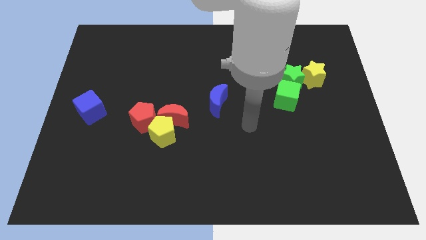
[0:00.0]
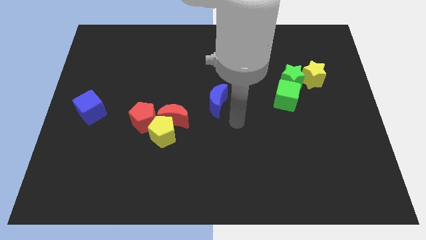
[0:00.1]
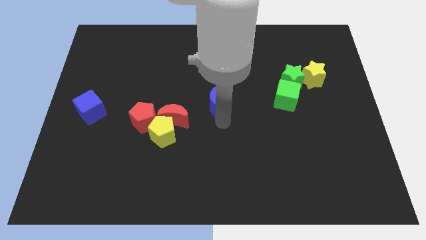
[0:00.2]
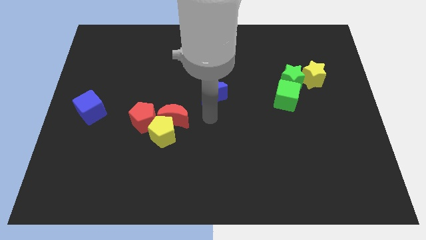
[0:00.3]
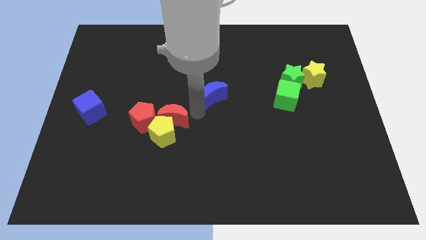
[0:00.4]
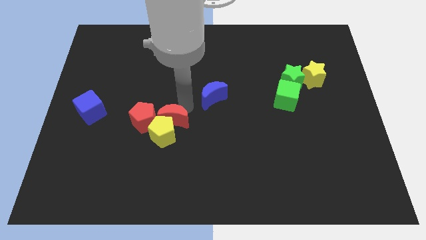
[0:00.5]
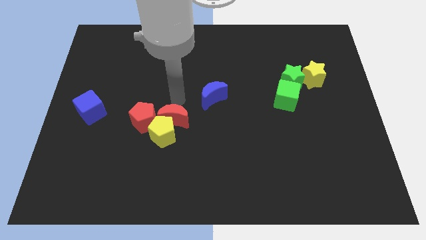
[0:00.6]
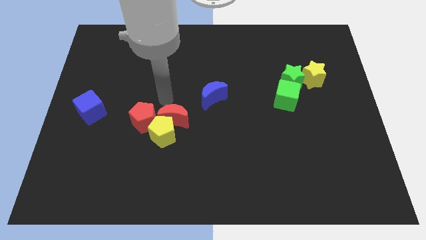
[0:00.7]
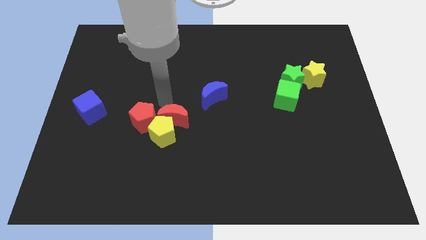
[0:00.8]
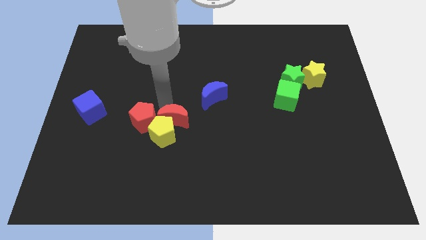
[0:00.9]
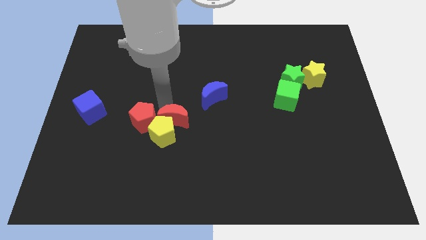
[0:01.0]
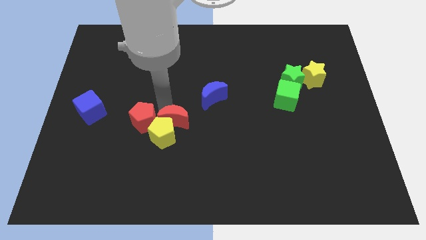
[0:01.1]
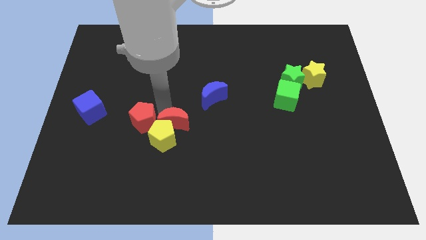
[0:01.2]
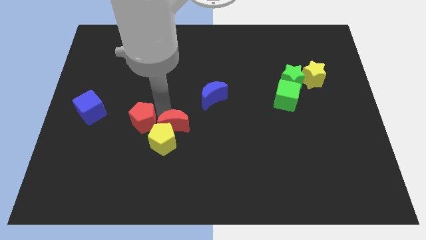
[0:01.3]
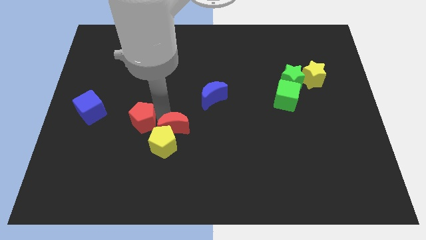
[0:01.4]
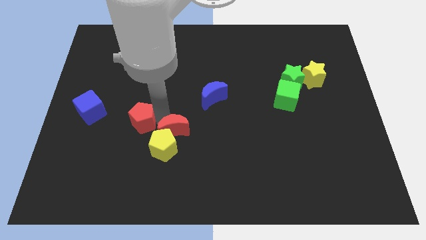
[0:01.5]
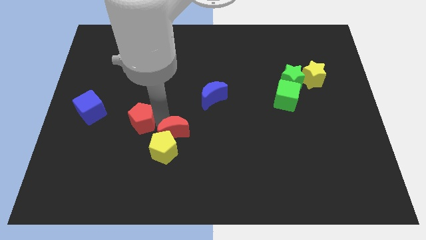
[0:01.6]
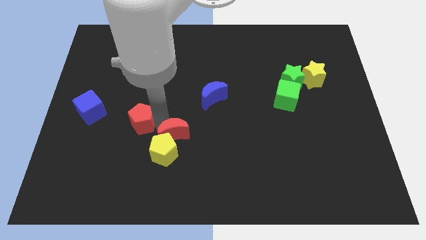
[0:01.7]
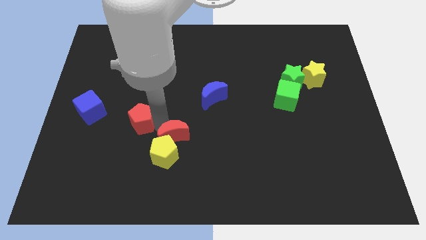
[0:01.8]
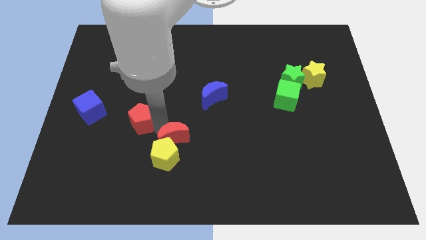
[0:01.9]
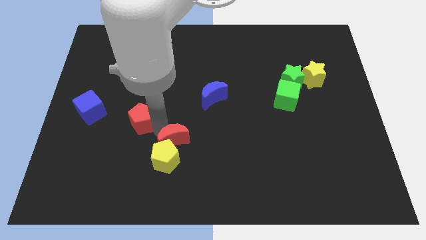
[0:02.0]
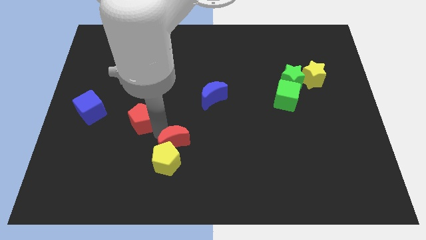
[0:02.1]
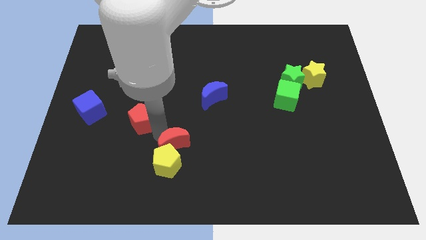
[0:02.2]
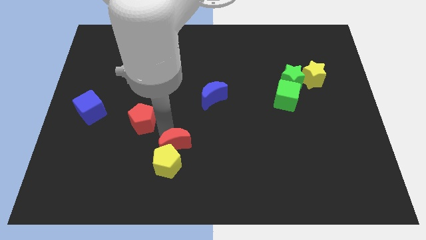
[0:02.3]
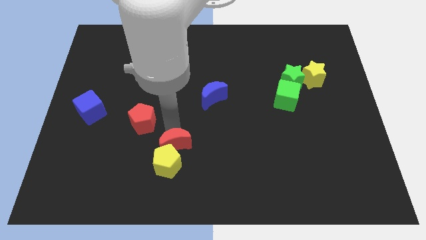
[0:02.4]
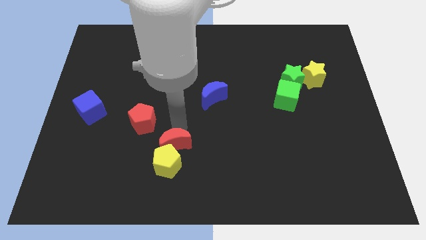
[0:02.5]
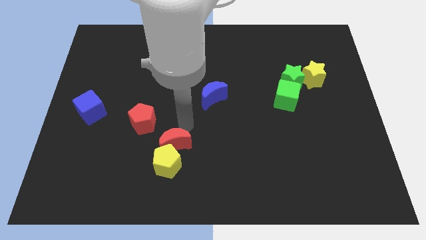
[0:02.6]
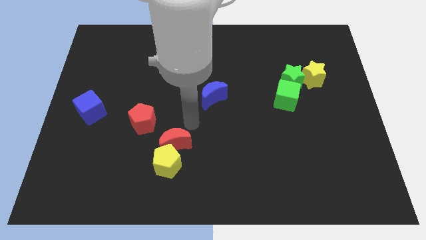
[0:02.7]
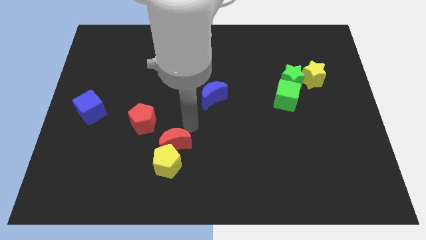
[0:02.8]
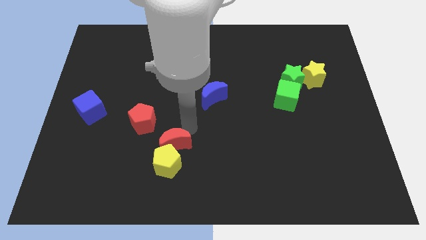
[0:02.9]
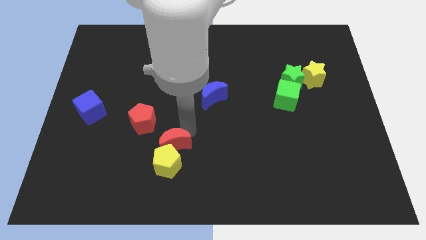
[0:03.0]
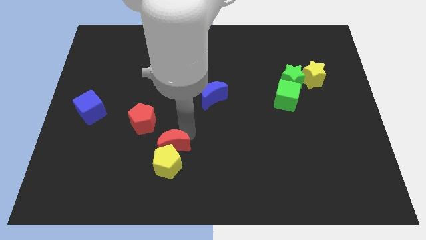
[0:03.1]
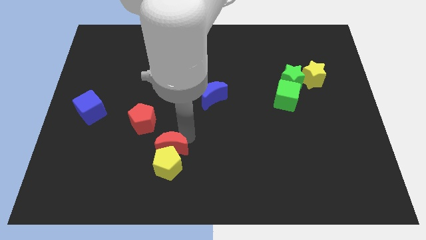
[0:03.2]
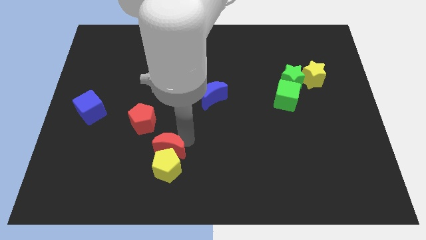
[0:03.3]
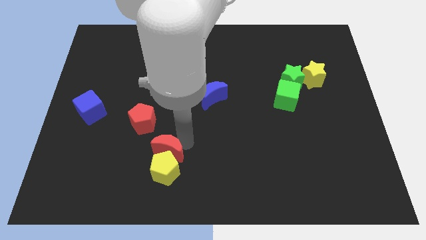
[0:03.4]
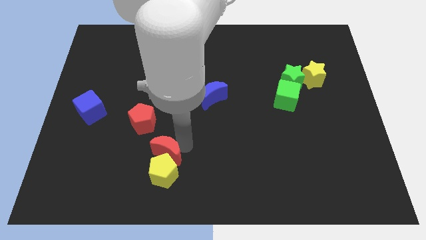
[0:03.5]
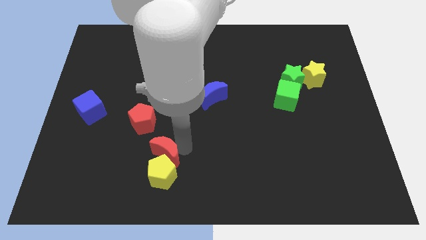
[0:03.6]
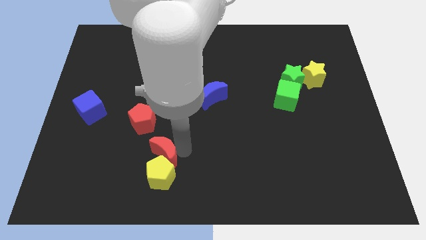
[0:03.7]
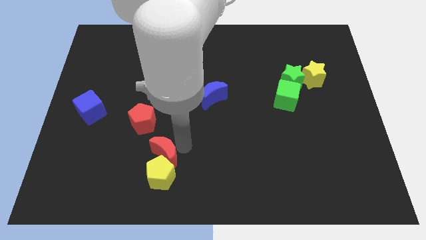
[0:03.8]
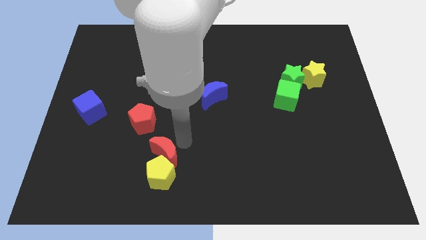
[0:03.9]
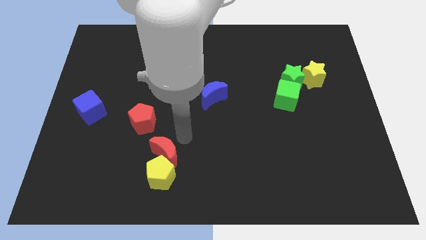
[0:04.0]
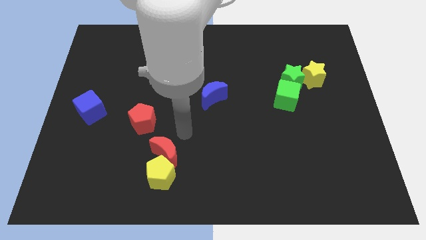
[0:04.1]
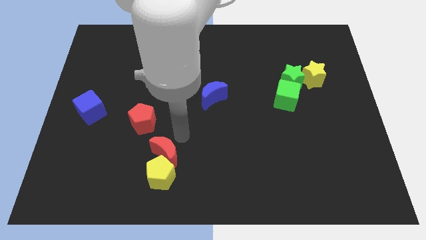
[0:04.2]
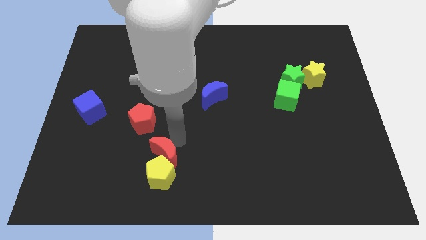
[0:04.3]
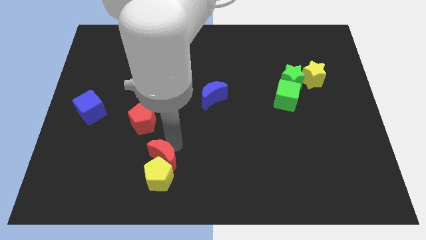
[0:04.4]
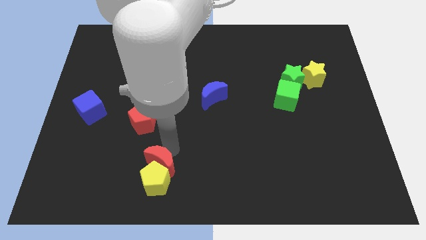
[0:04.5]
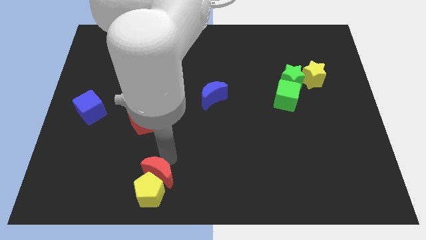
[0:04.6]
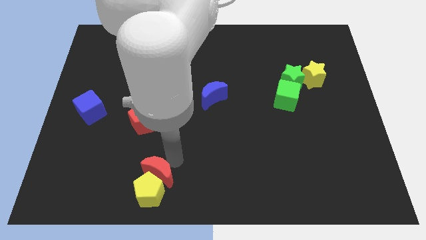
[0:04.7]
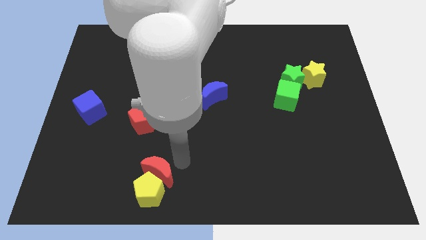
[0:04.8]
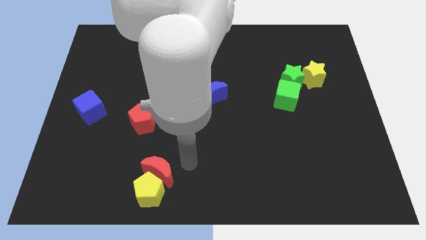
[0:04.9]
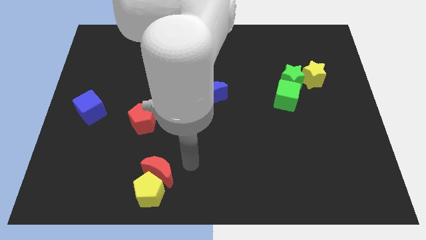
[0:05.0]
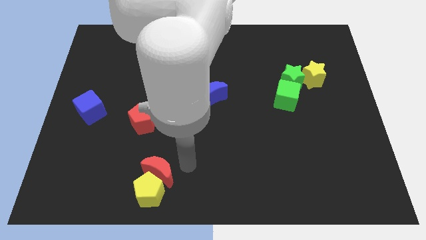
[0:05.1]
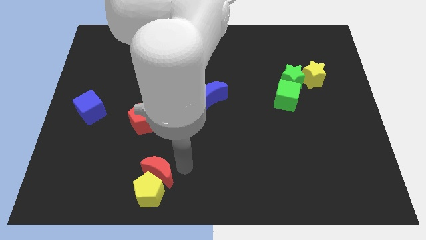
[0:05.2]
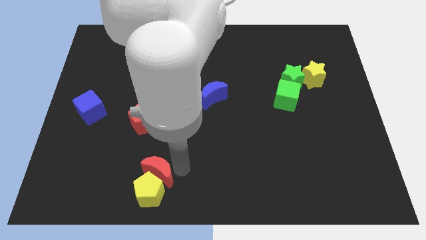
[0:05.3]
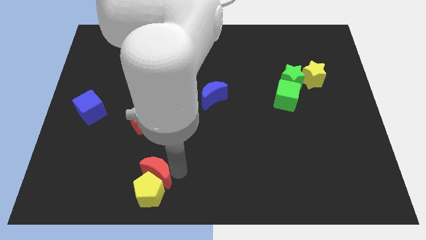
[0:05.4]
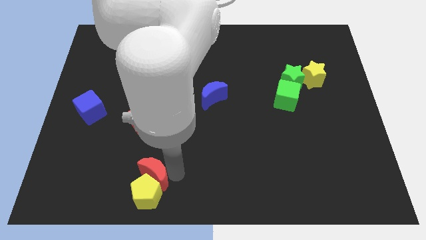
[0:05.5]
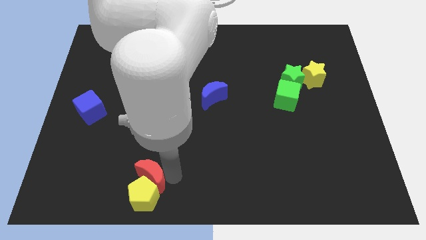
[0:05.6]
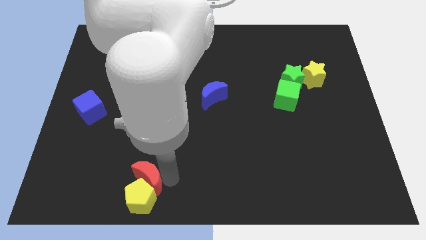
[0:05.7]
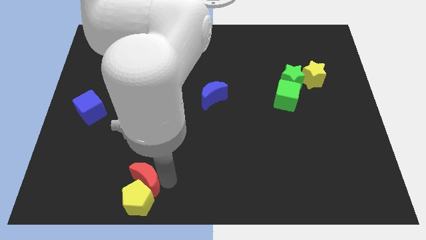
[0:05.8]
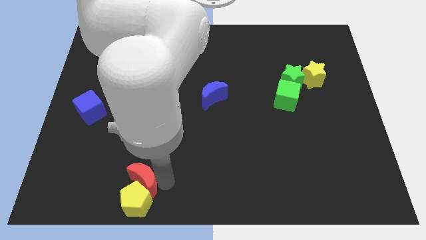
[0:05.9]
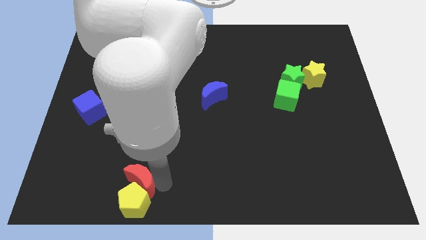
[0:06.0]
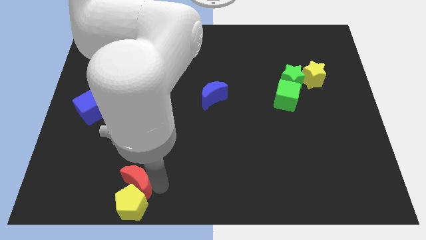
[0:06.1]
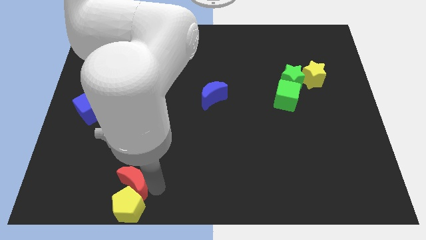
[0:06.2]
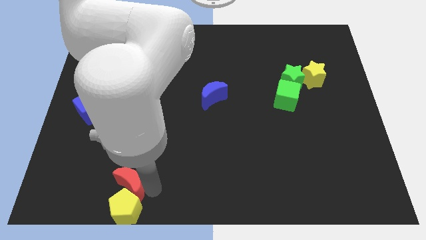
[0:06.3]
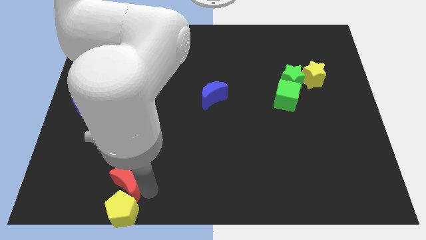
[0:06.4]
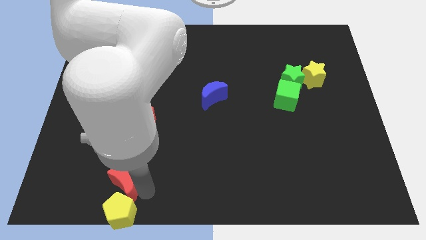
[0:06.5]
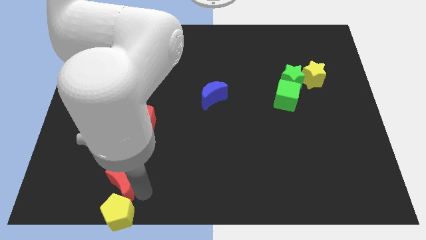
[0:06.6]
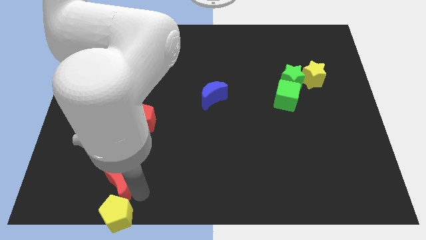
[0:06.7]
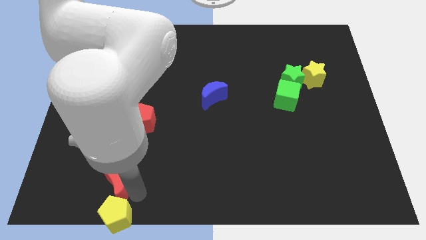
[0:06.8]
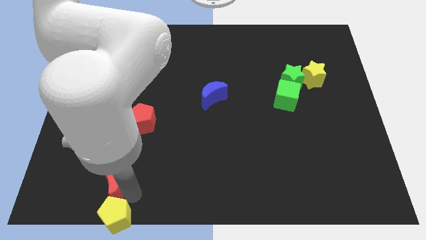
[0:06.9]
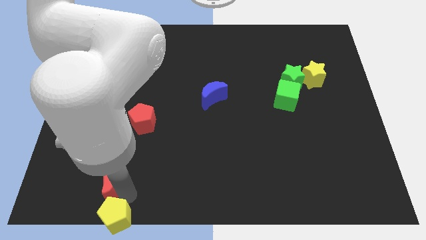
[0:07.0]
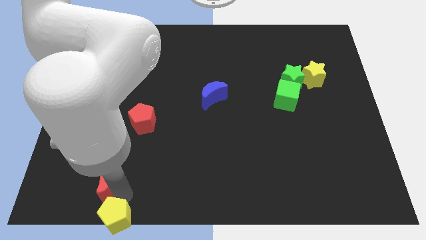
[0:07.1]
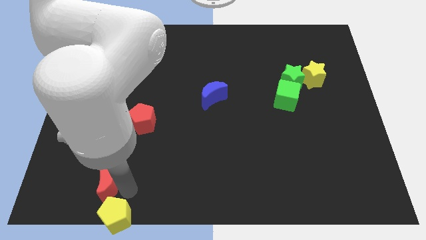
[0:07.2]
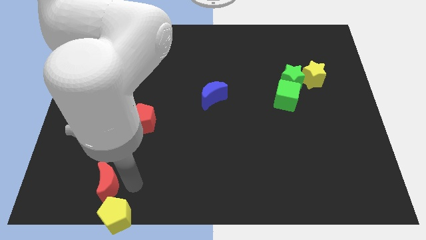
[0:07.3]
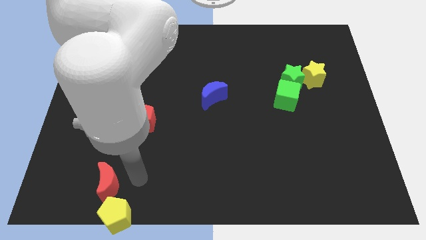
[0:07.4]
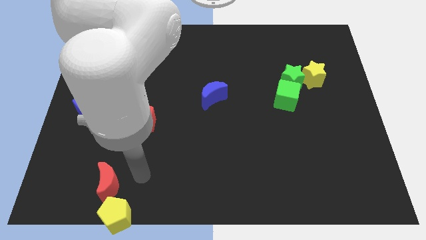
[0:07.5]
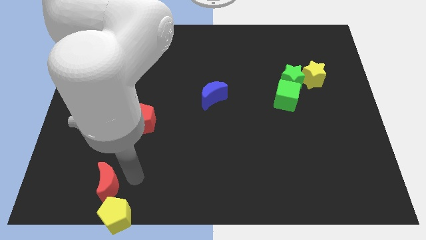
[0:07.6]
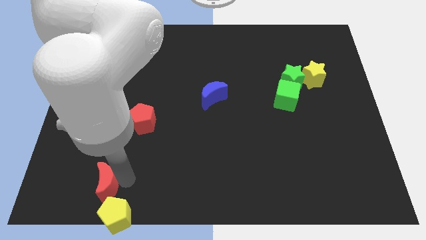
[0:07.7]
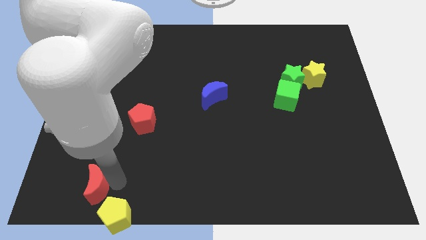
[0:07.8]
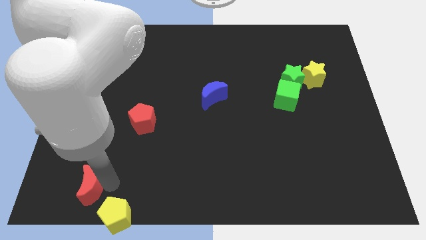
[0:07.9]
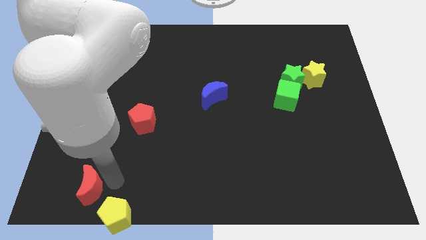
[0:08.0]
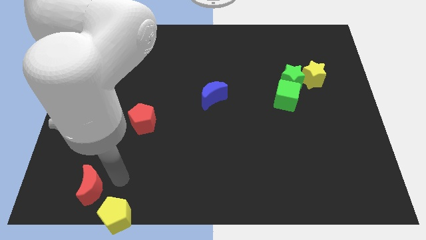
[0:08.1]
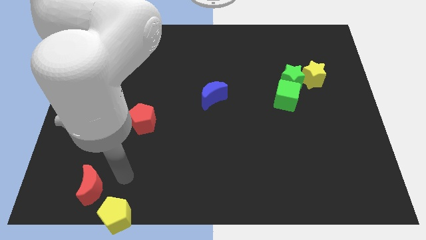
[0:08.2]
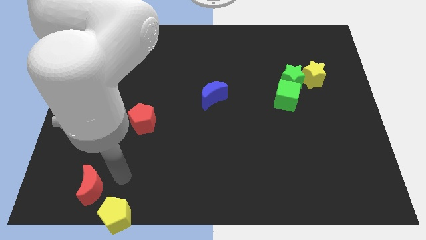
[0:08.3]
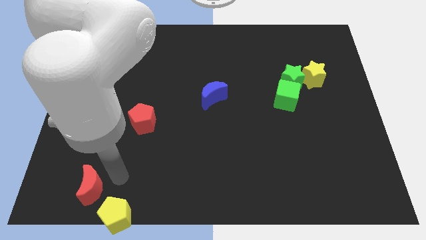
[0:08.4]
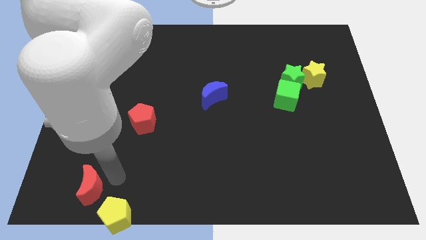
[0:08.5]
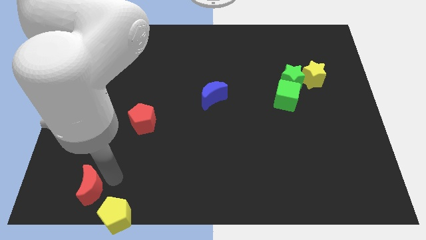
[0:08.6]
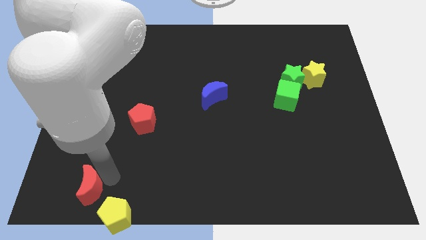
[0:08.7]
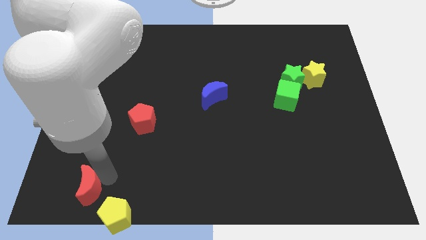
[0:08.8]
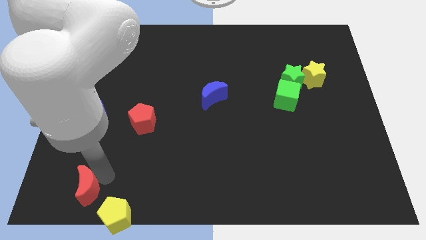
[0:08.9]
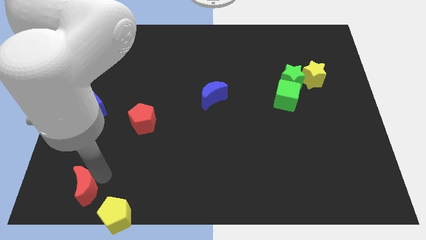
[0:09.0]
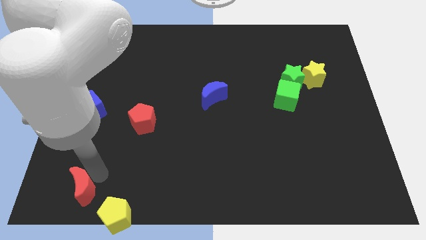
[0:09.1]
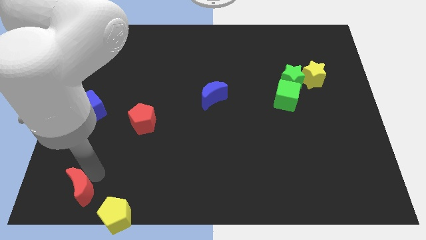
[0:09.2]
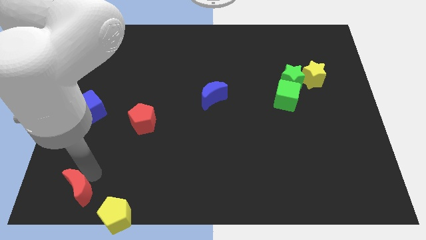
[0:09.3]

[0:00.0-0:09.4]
push the red moon to the bottom left
